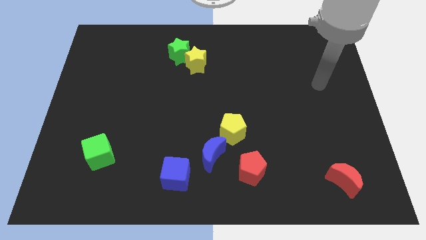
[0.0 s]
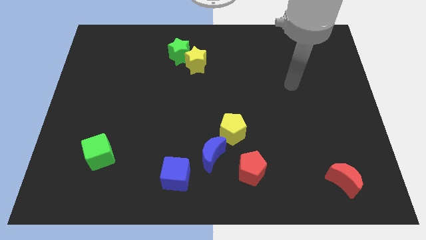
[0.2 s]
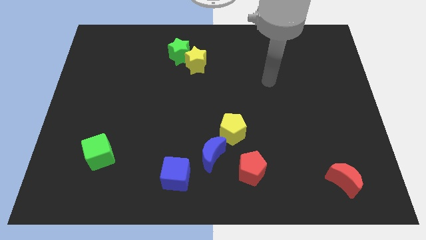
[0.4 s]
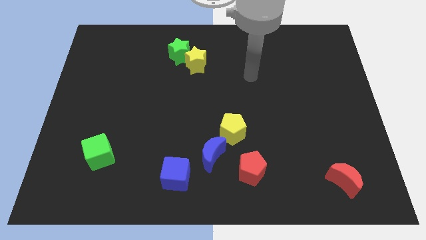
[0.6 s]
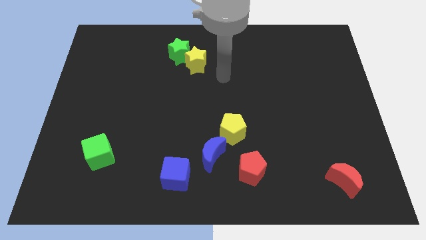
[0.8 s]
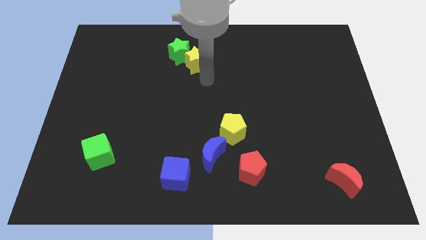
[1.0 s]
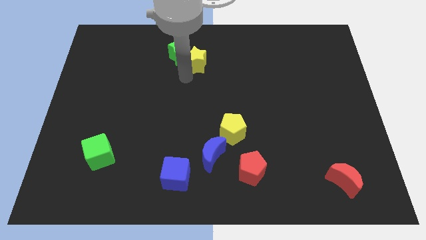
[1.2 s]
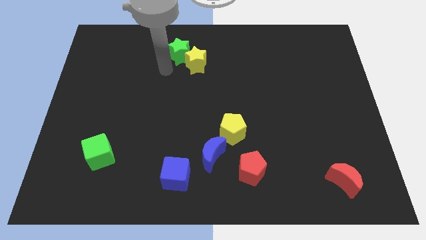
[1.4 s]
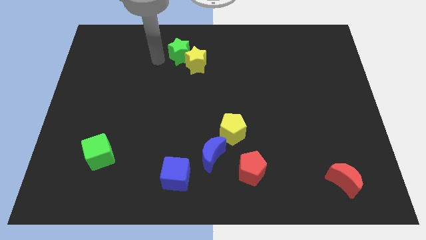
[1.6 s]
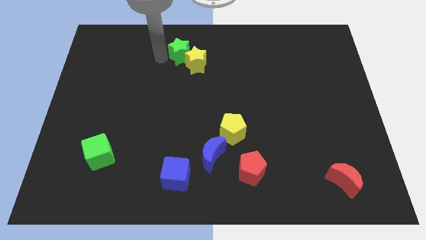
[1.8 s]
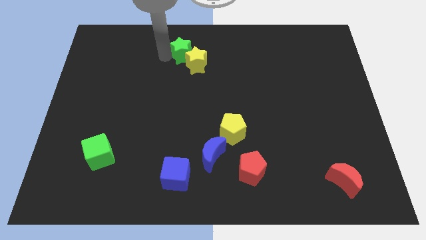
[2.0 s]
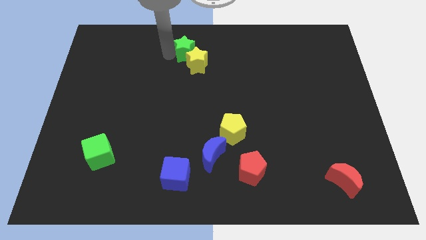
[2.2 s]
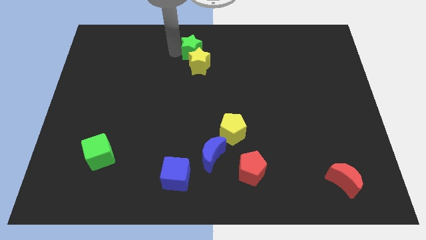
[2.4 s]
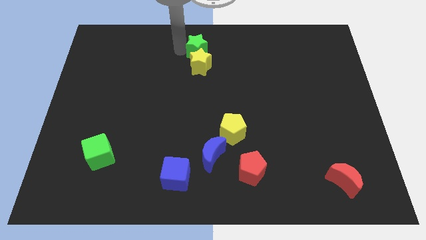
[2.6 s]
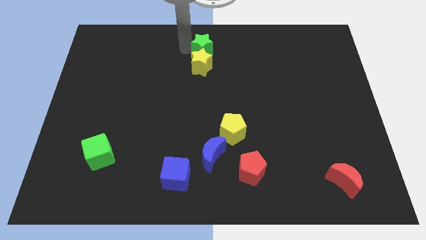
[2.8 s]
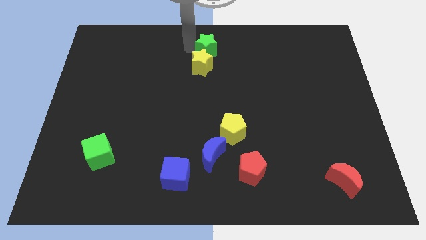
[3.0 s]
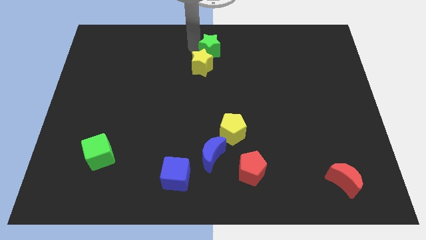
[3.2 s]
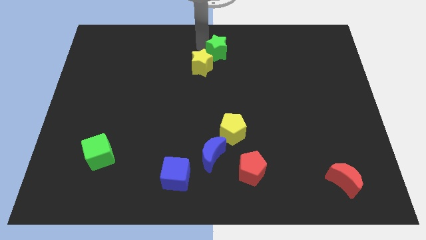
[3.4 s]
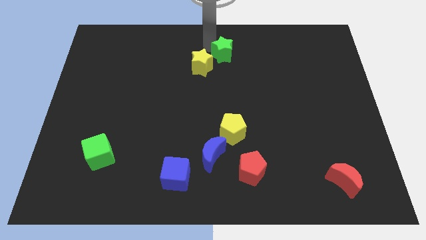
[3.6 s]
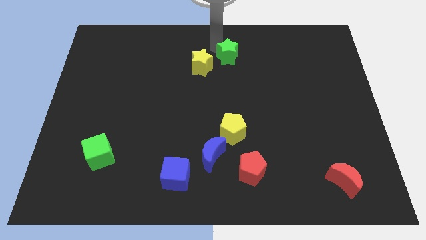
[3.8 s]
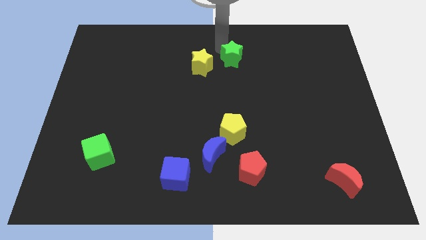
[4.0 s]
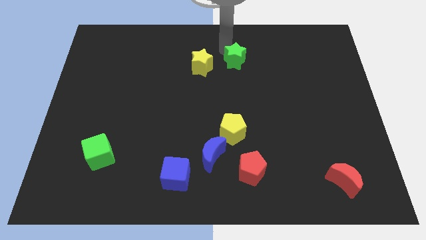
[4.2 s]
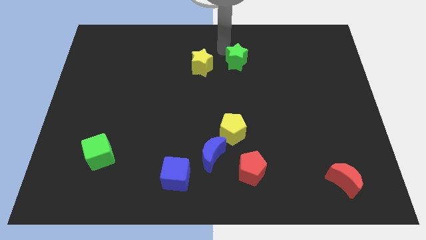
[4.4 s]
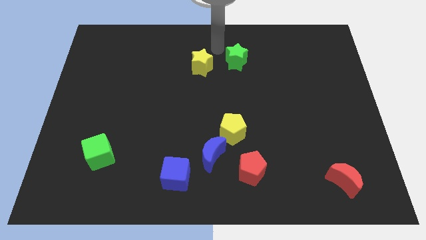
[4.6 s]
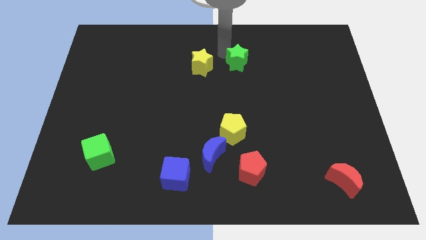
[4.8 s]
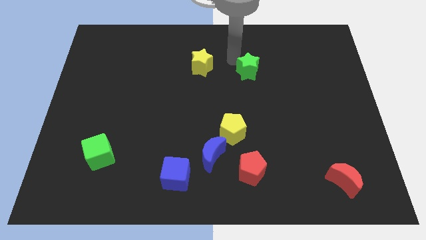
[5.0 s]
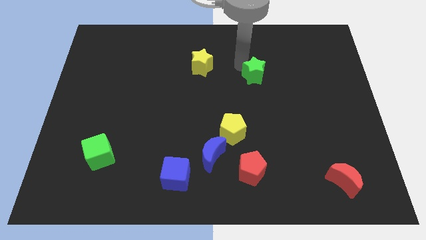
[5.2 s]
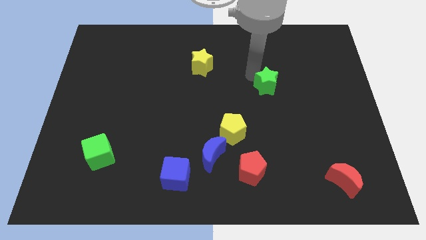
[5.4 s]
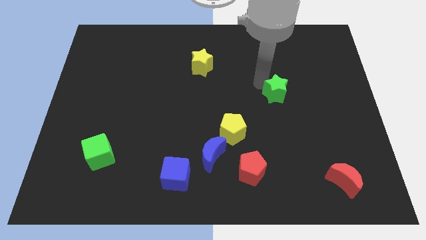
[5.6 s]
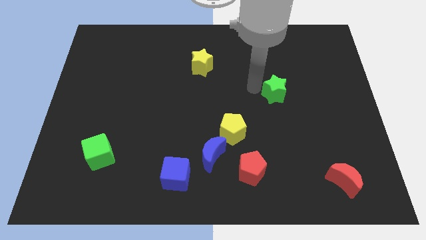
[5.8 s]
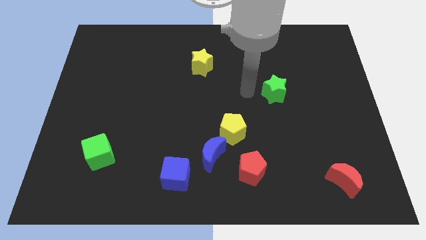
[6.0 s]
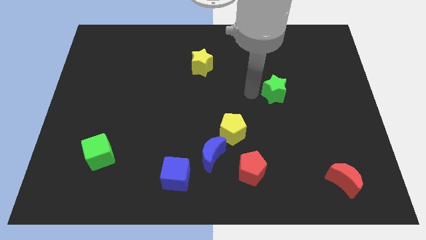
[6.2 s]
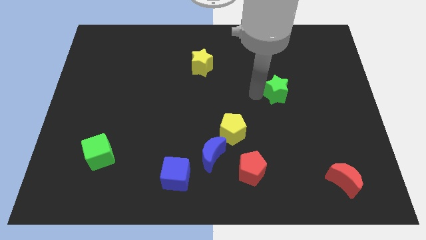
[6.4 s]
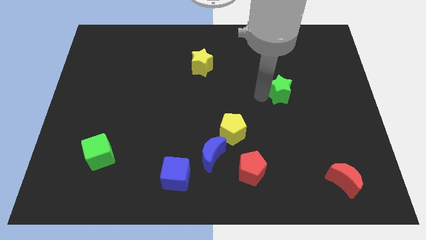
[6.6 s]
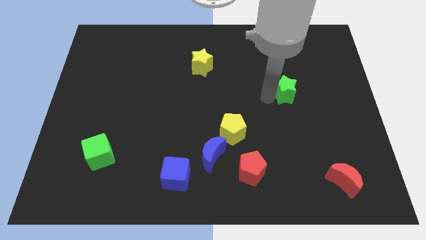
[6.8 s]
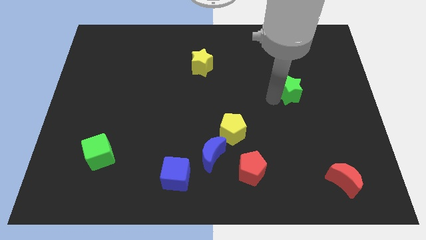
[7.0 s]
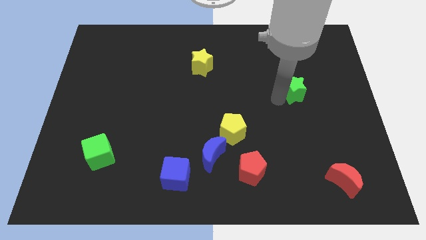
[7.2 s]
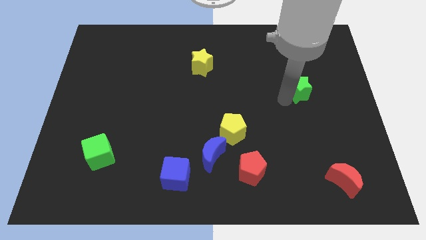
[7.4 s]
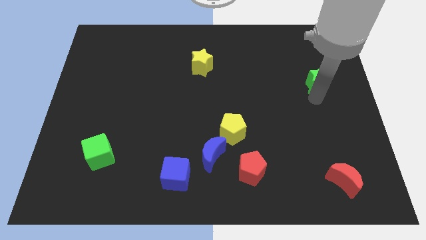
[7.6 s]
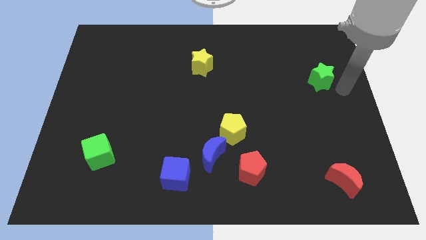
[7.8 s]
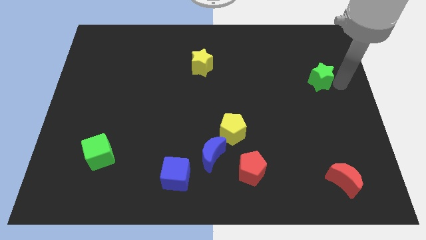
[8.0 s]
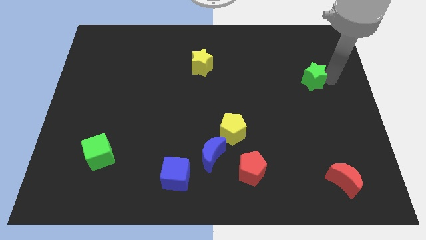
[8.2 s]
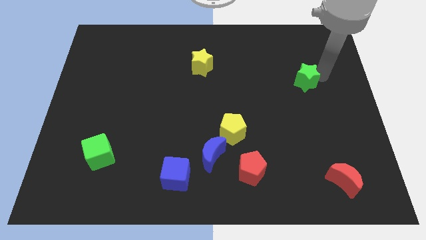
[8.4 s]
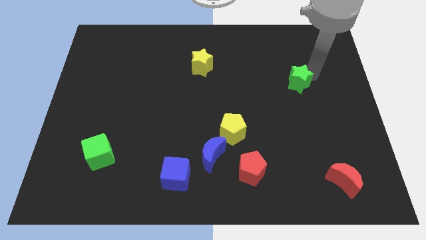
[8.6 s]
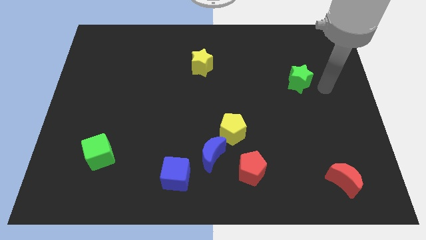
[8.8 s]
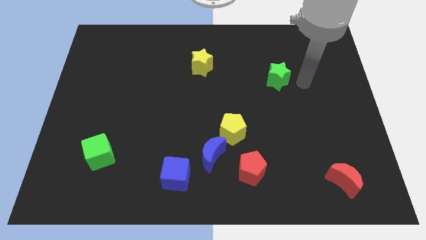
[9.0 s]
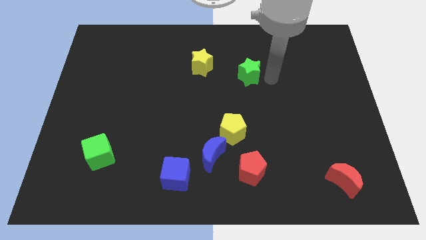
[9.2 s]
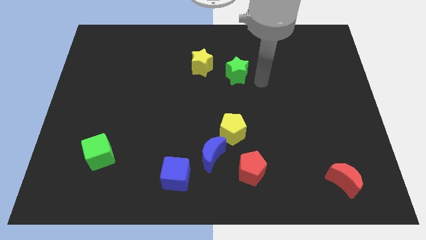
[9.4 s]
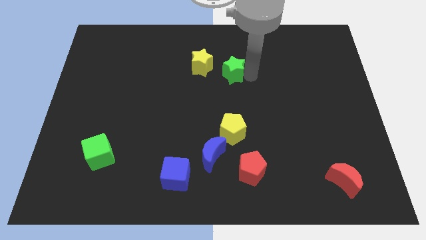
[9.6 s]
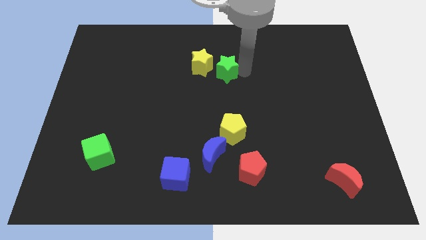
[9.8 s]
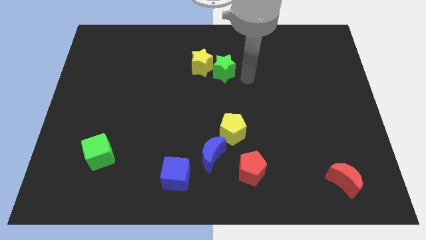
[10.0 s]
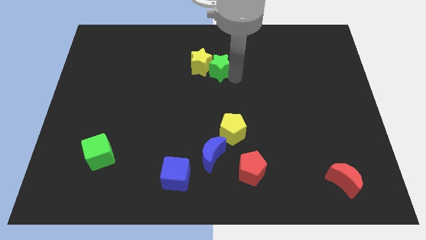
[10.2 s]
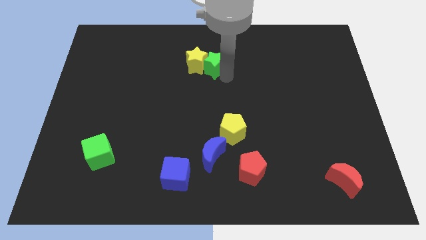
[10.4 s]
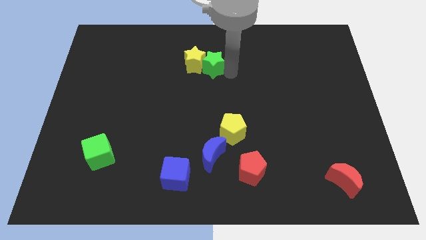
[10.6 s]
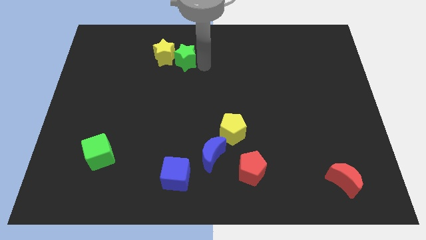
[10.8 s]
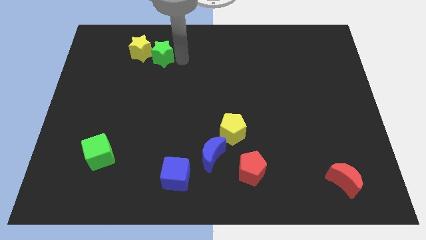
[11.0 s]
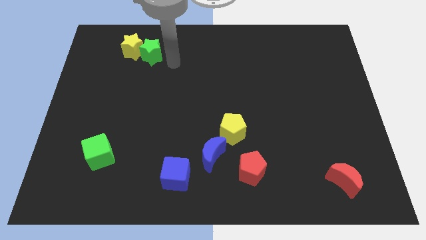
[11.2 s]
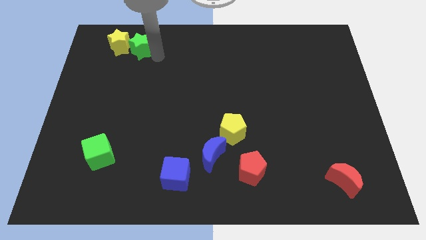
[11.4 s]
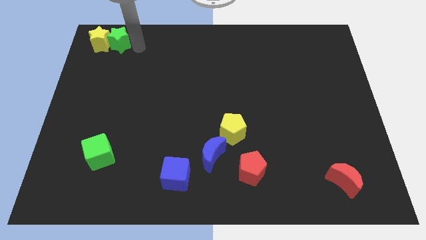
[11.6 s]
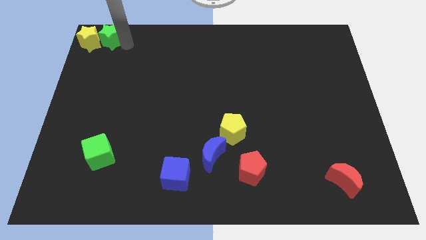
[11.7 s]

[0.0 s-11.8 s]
move the green star to the top left of the board

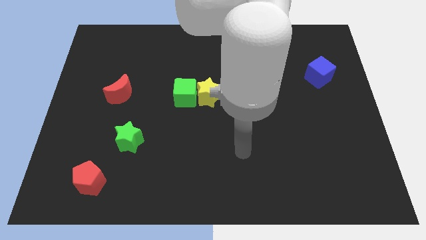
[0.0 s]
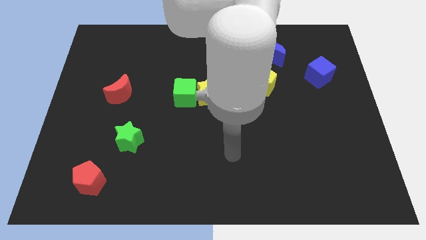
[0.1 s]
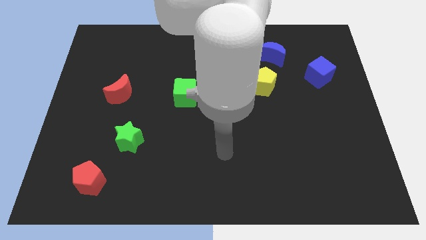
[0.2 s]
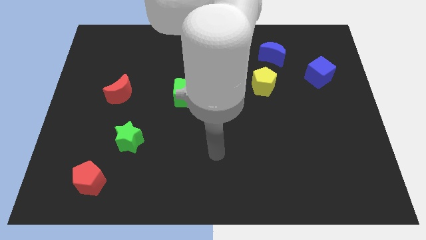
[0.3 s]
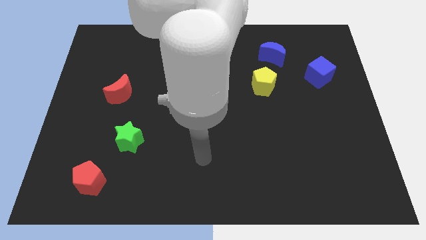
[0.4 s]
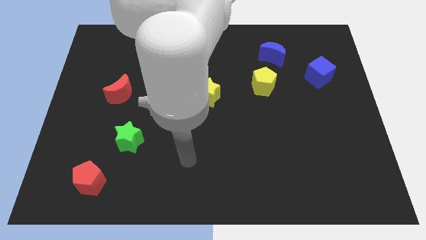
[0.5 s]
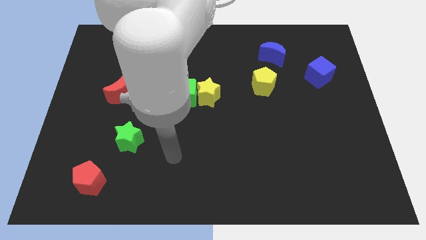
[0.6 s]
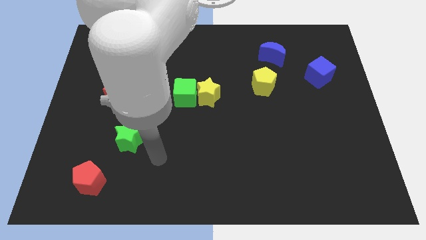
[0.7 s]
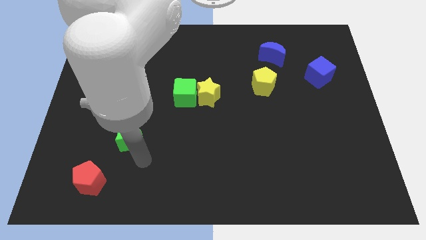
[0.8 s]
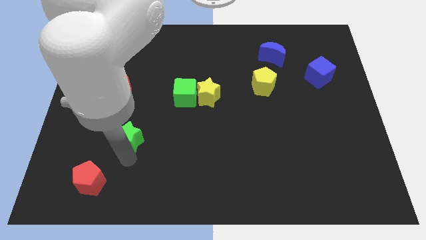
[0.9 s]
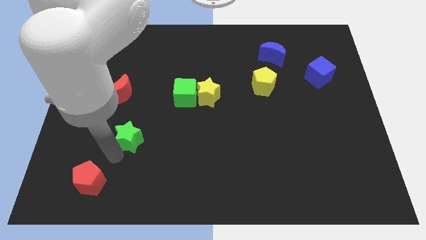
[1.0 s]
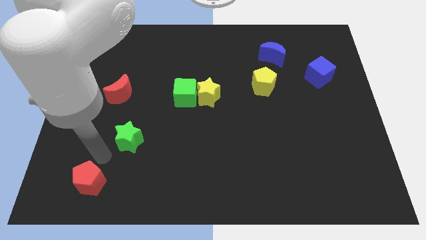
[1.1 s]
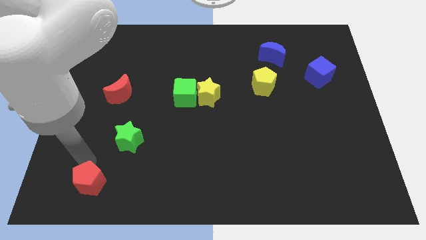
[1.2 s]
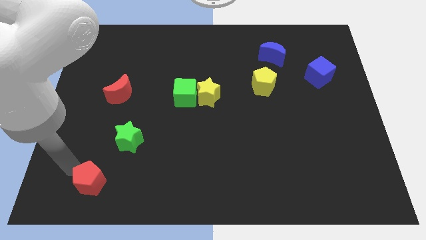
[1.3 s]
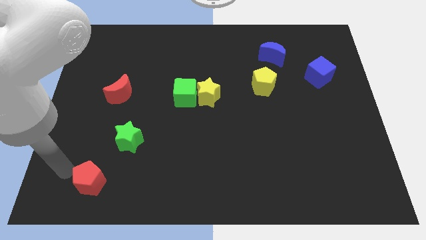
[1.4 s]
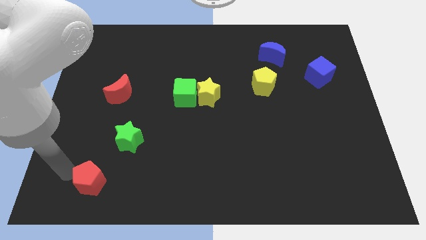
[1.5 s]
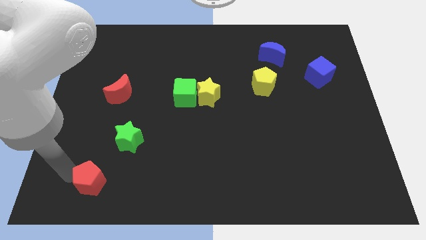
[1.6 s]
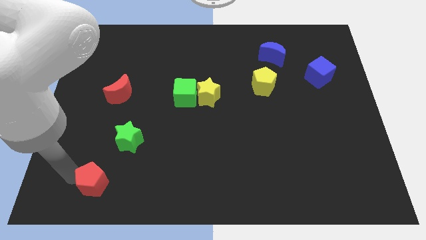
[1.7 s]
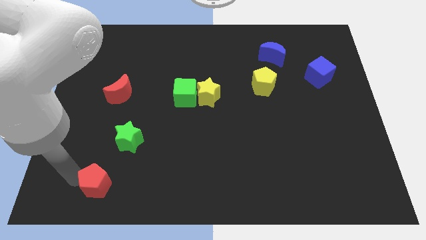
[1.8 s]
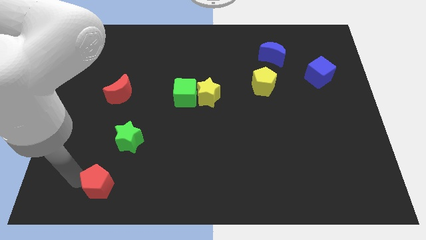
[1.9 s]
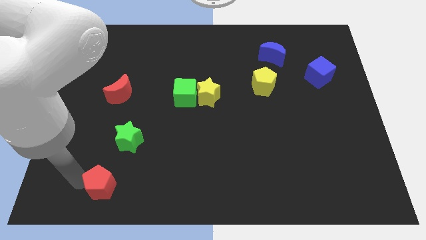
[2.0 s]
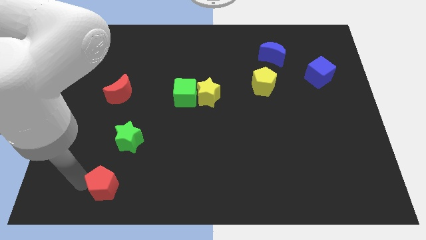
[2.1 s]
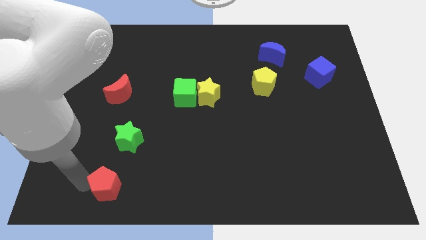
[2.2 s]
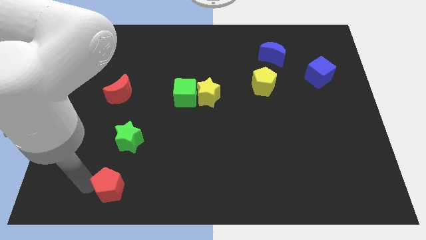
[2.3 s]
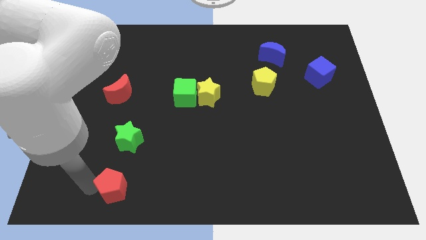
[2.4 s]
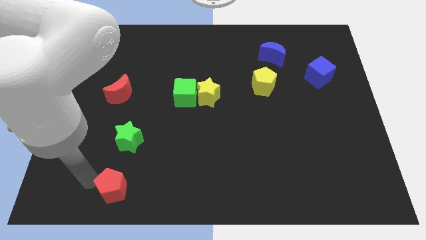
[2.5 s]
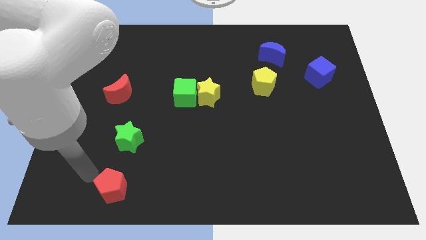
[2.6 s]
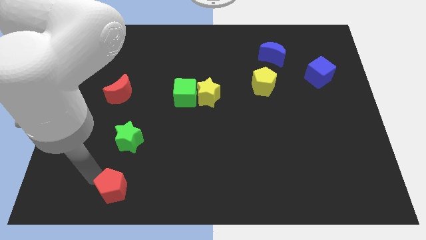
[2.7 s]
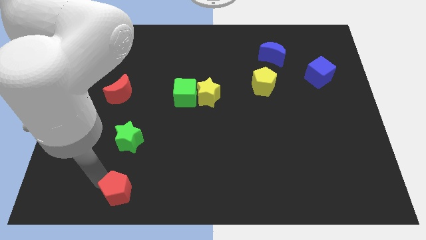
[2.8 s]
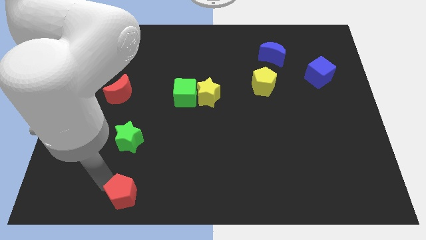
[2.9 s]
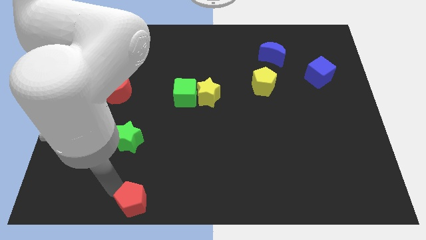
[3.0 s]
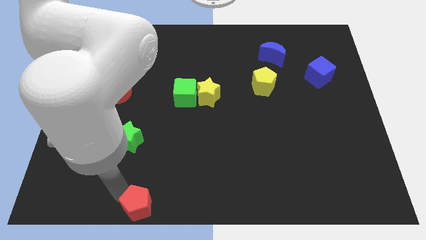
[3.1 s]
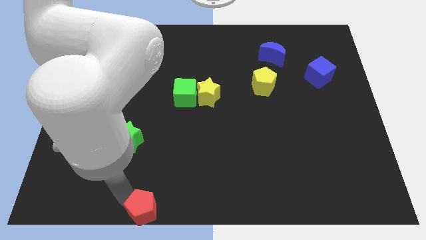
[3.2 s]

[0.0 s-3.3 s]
put the red pentagon to the bottom side
